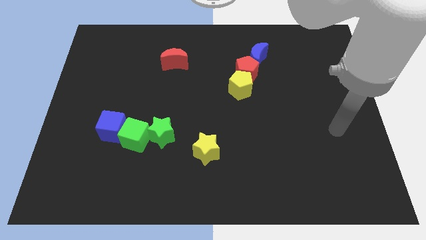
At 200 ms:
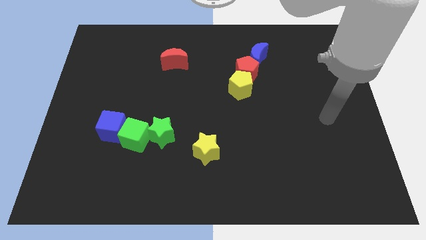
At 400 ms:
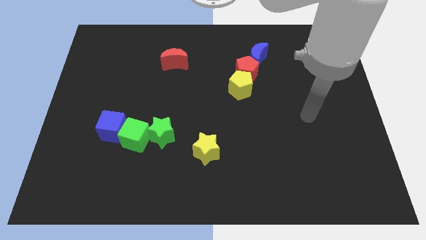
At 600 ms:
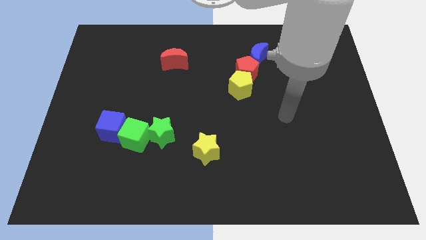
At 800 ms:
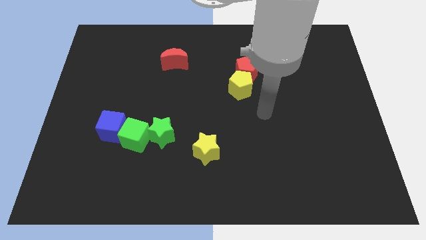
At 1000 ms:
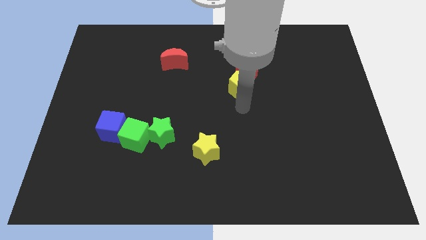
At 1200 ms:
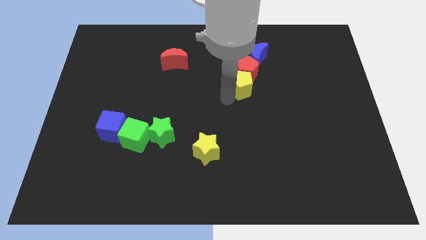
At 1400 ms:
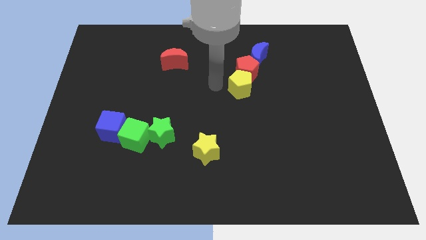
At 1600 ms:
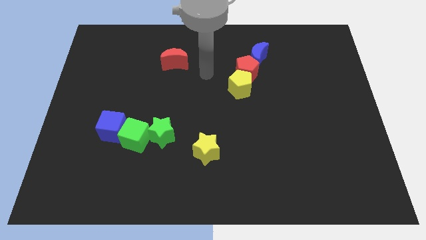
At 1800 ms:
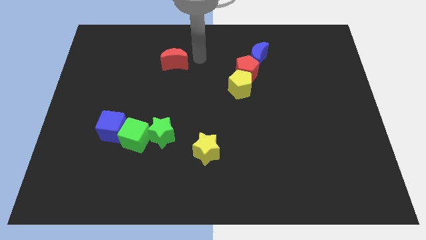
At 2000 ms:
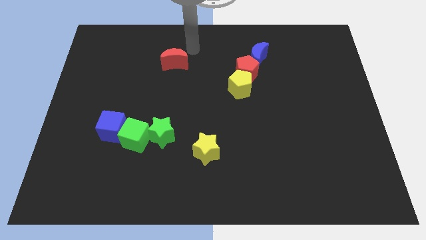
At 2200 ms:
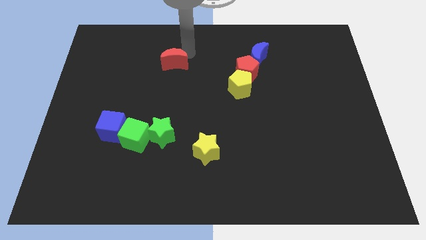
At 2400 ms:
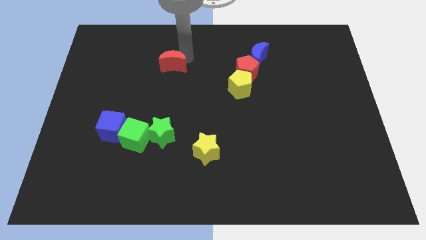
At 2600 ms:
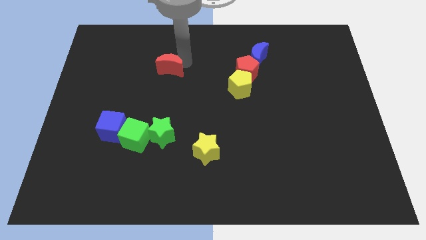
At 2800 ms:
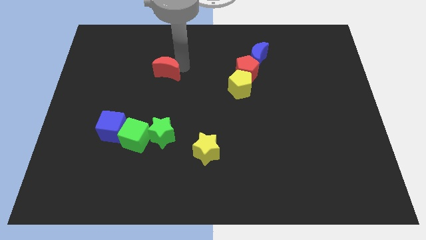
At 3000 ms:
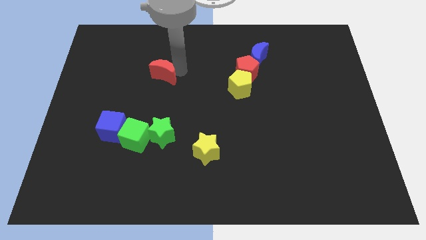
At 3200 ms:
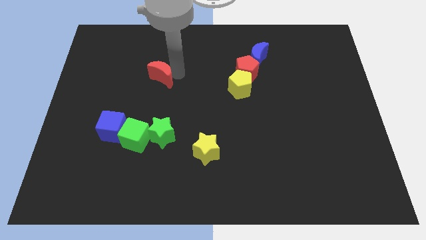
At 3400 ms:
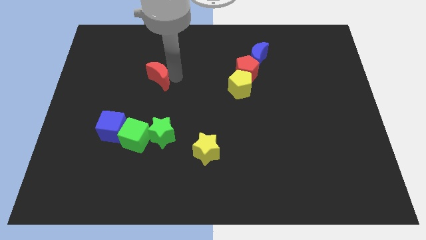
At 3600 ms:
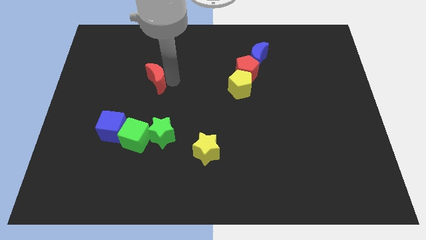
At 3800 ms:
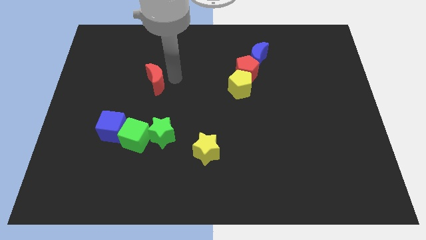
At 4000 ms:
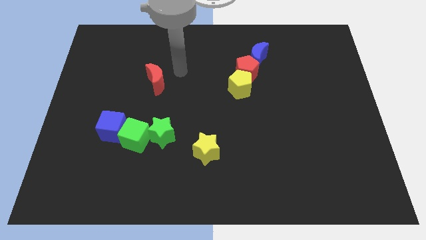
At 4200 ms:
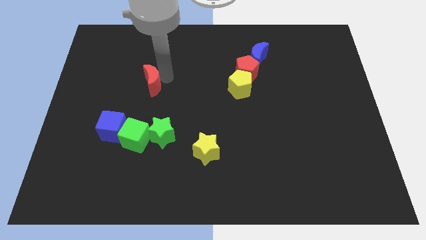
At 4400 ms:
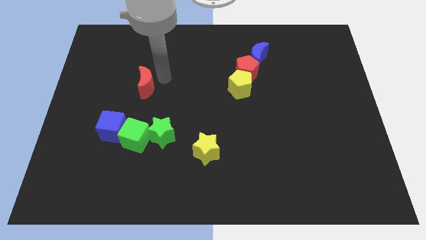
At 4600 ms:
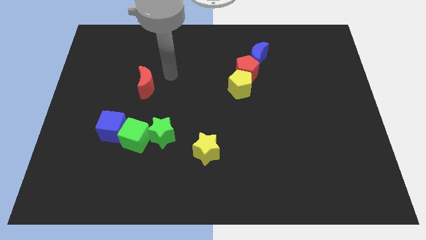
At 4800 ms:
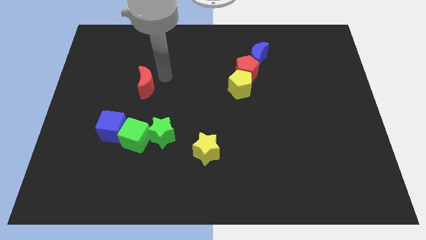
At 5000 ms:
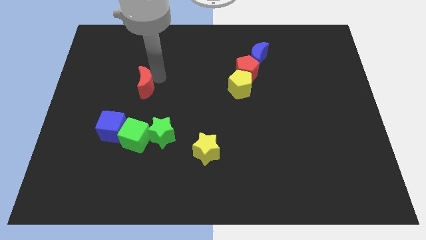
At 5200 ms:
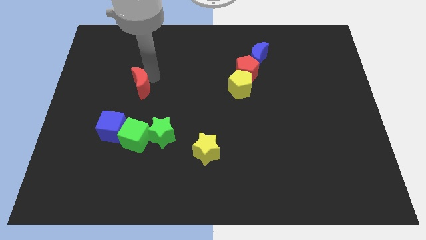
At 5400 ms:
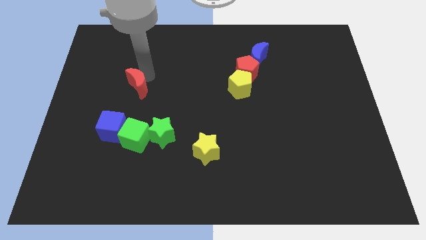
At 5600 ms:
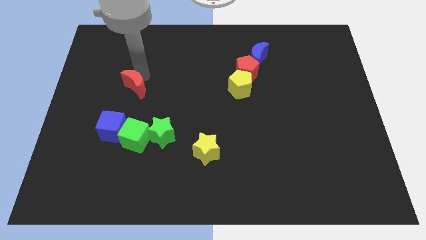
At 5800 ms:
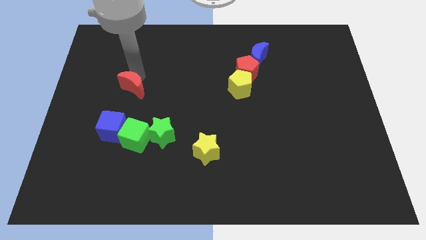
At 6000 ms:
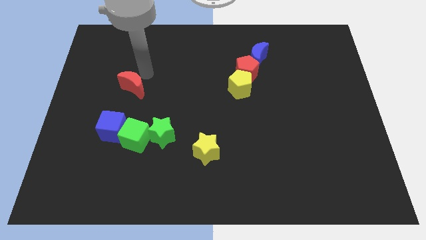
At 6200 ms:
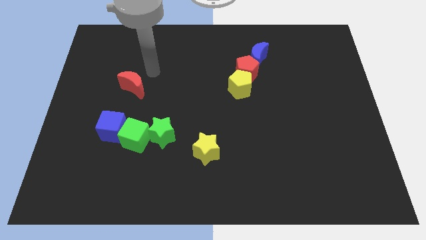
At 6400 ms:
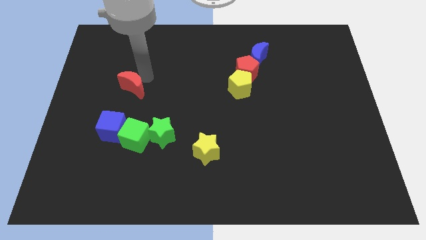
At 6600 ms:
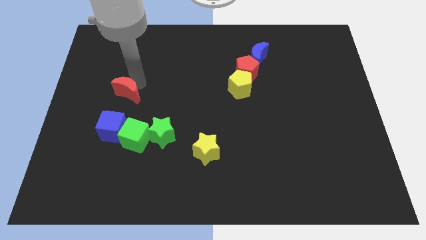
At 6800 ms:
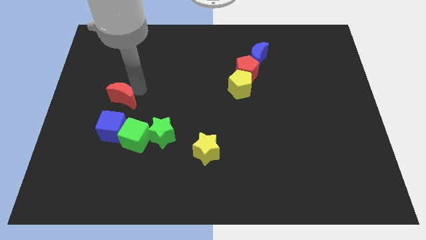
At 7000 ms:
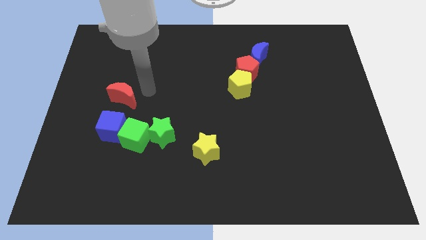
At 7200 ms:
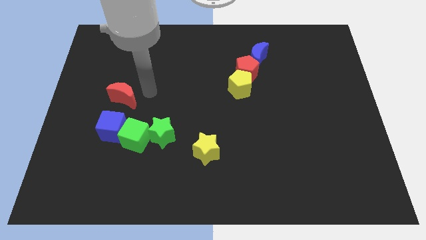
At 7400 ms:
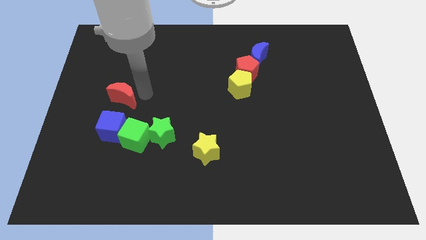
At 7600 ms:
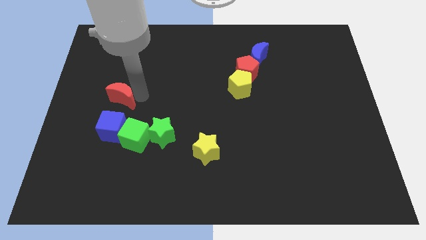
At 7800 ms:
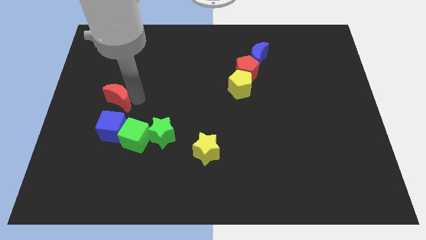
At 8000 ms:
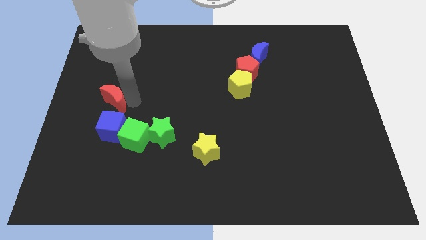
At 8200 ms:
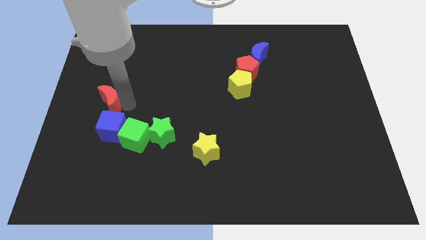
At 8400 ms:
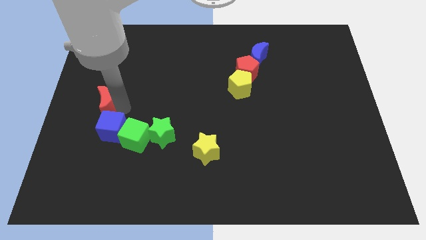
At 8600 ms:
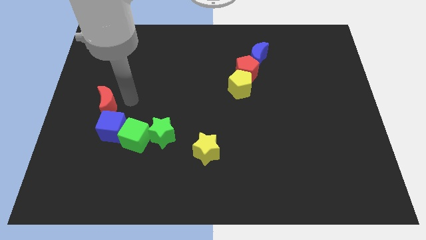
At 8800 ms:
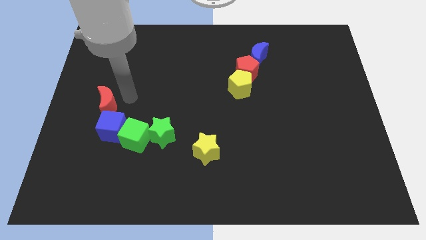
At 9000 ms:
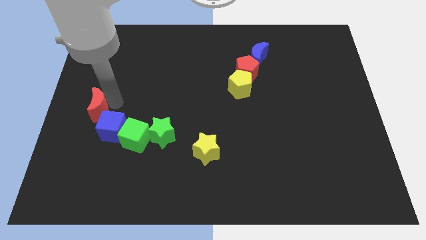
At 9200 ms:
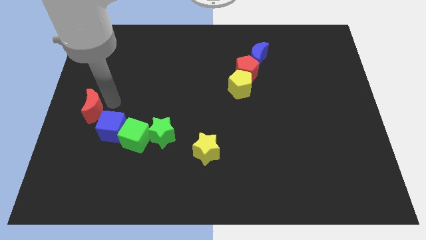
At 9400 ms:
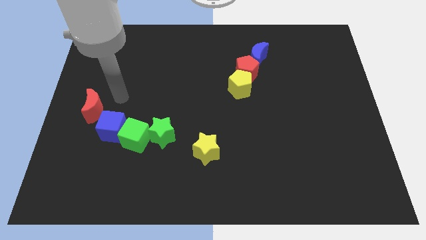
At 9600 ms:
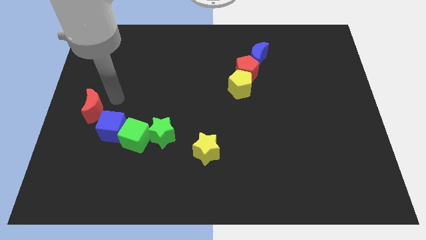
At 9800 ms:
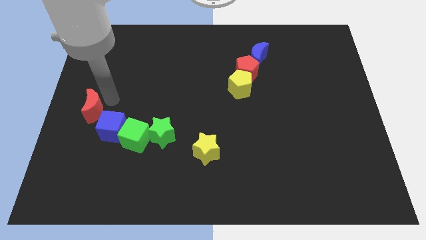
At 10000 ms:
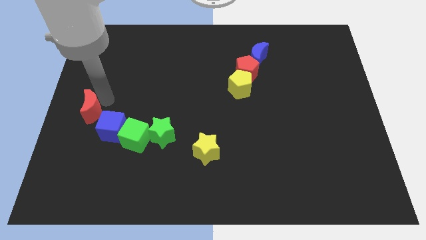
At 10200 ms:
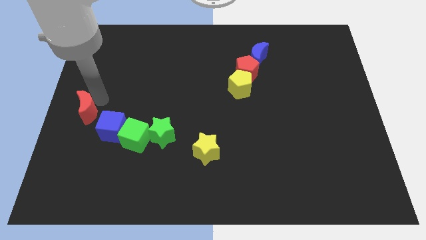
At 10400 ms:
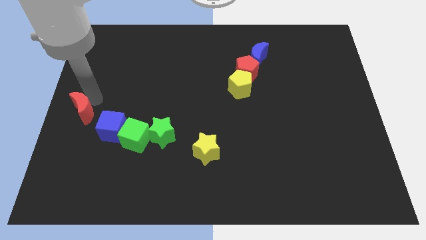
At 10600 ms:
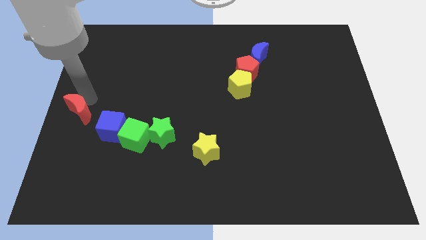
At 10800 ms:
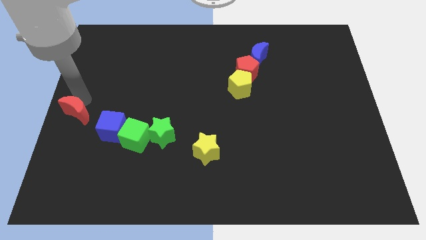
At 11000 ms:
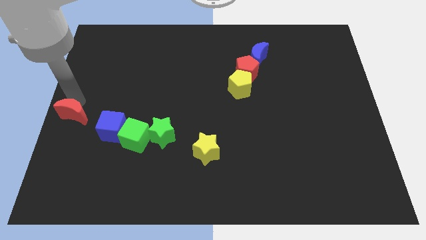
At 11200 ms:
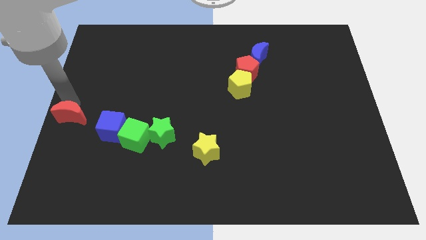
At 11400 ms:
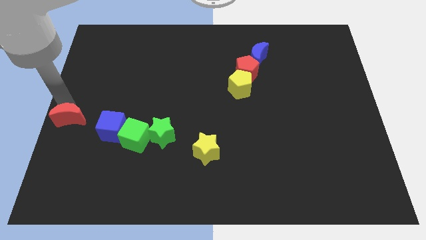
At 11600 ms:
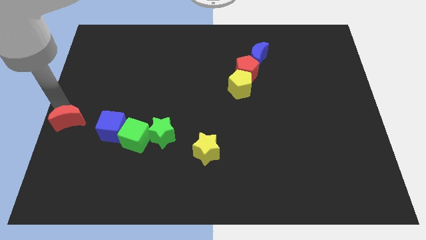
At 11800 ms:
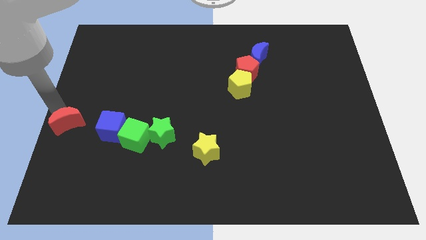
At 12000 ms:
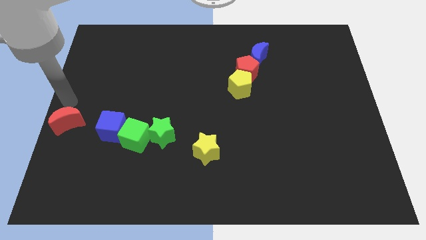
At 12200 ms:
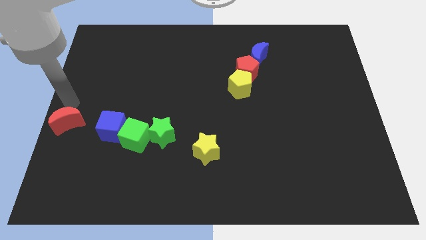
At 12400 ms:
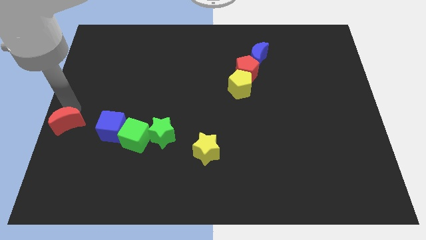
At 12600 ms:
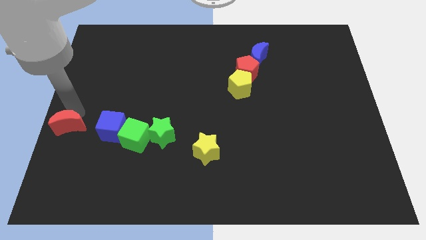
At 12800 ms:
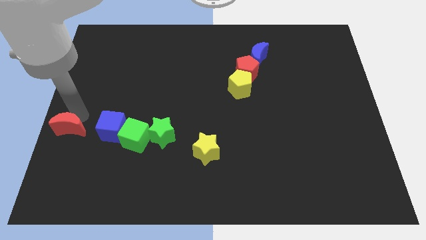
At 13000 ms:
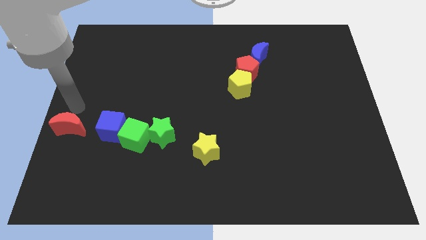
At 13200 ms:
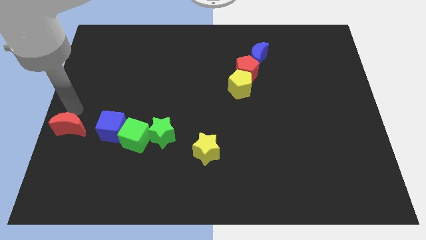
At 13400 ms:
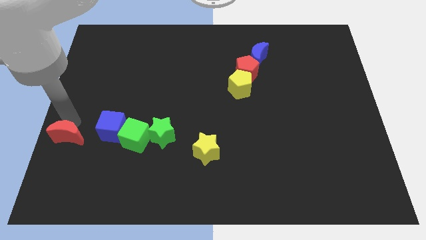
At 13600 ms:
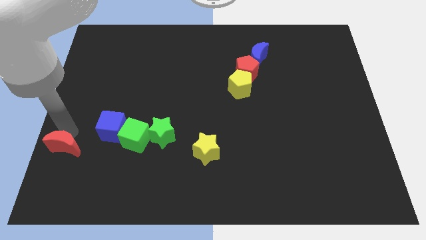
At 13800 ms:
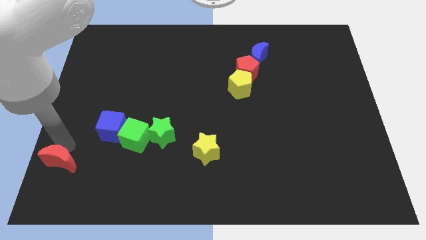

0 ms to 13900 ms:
put the red moon to the lower left corner

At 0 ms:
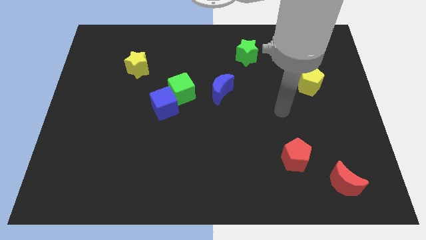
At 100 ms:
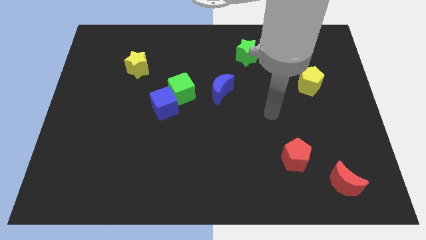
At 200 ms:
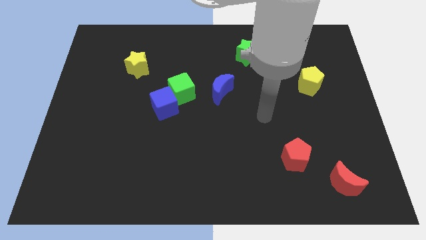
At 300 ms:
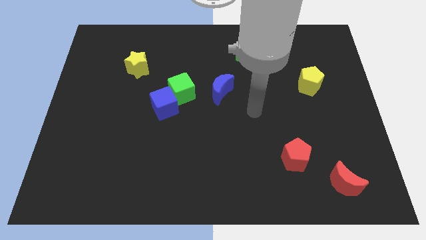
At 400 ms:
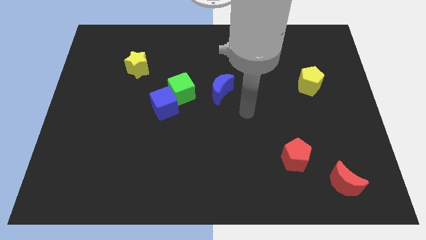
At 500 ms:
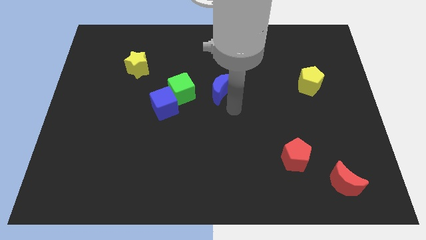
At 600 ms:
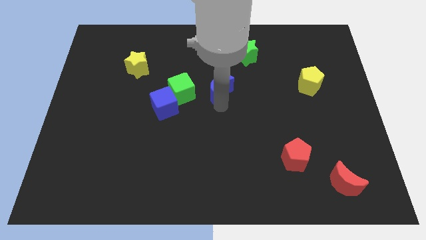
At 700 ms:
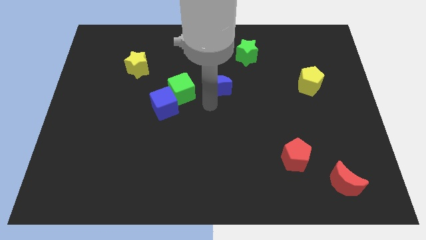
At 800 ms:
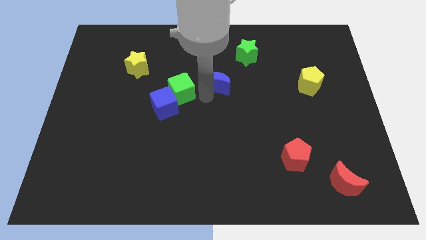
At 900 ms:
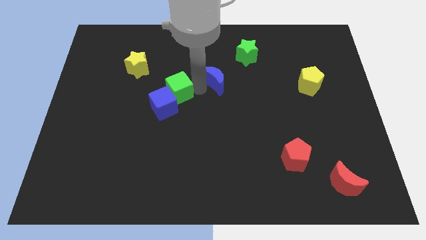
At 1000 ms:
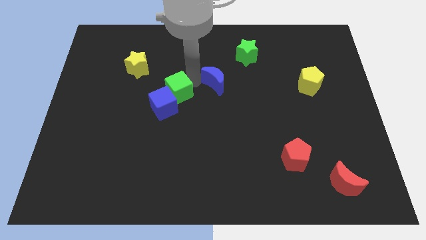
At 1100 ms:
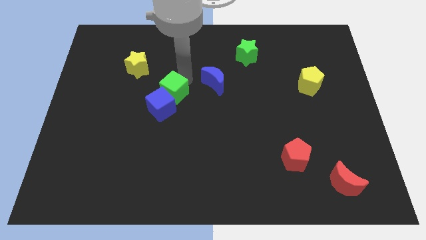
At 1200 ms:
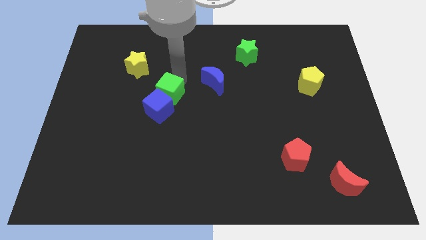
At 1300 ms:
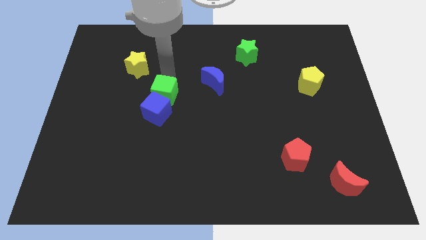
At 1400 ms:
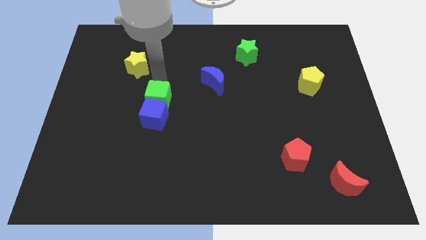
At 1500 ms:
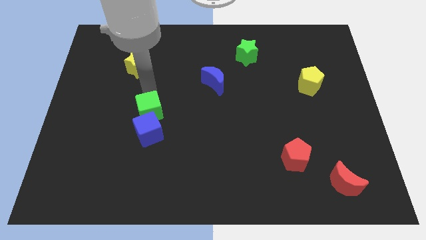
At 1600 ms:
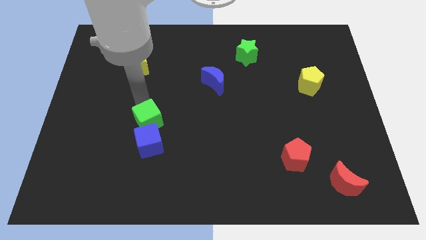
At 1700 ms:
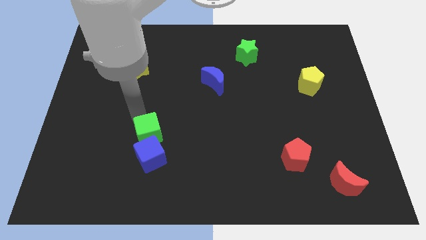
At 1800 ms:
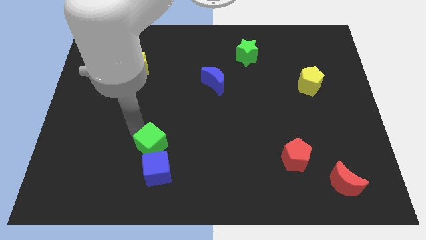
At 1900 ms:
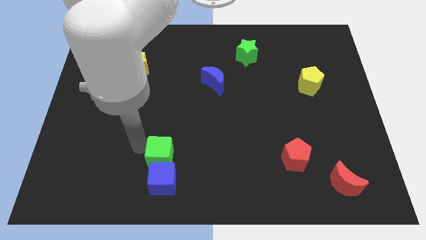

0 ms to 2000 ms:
push the blue cube to the bottom side
